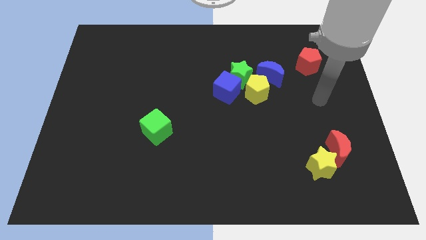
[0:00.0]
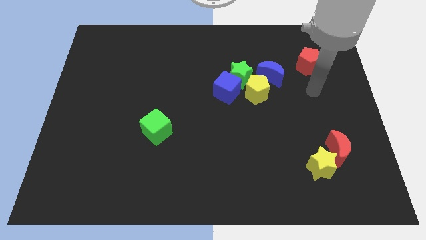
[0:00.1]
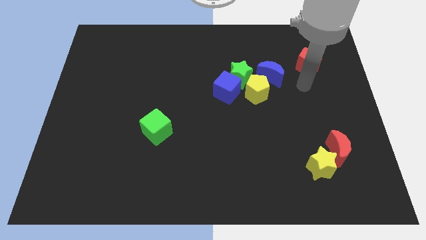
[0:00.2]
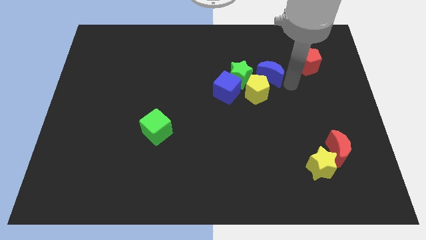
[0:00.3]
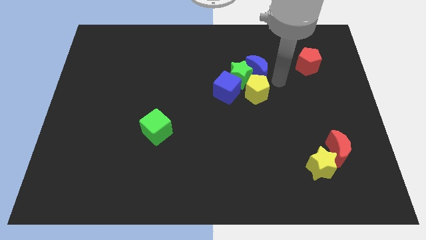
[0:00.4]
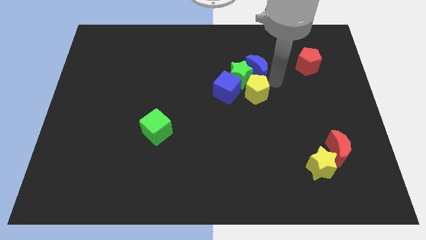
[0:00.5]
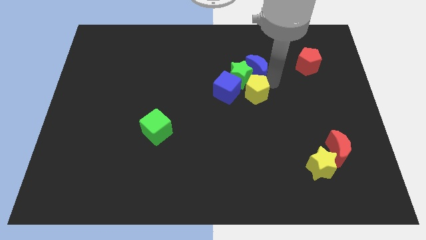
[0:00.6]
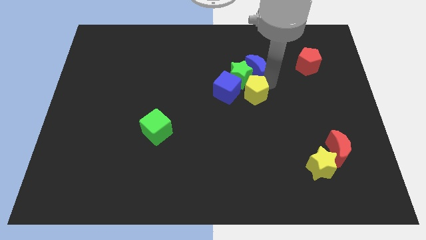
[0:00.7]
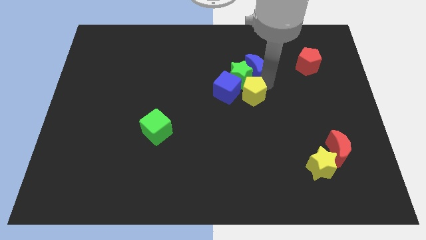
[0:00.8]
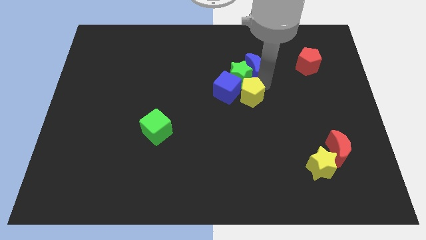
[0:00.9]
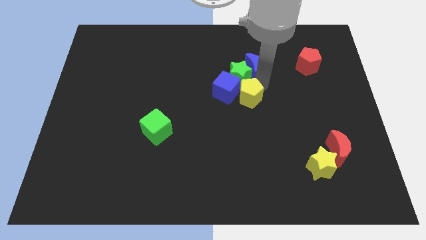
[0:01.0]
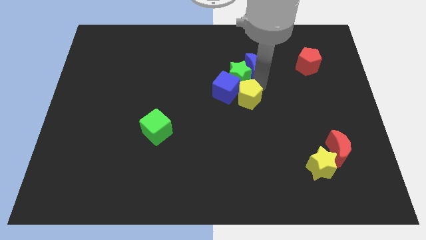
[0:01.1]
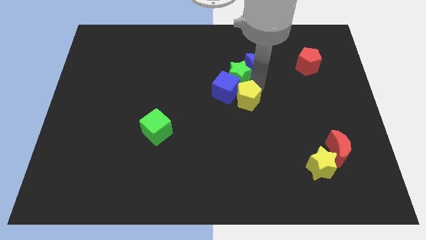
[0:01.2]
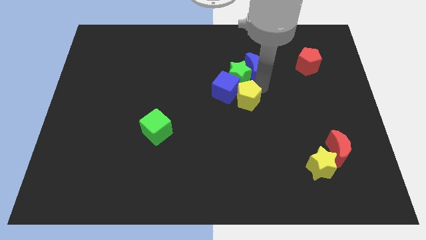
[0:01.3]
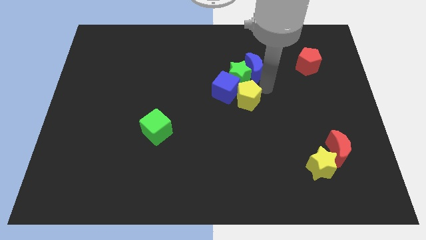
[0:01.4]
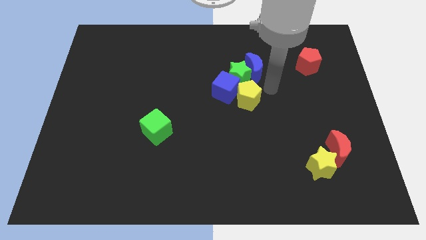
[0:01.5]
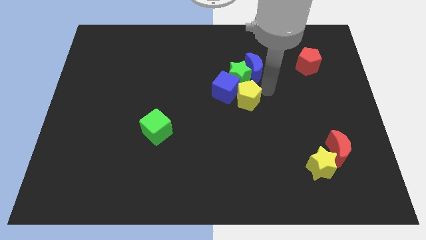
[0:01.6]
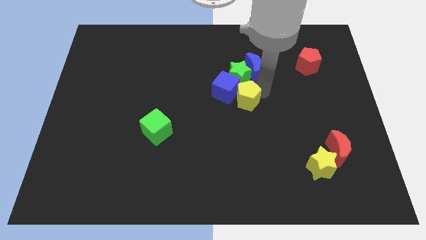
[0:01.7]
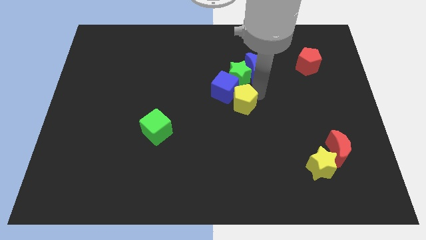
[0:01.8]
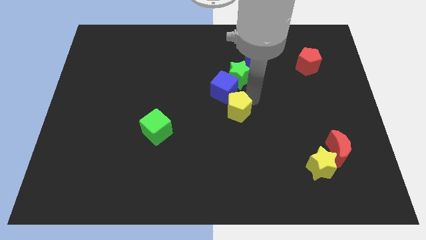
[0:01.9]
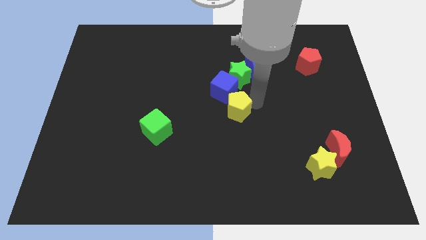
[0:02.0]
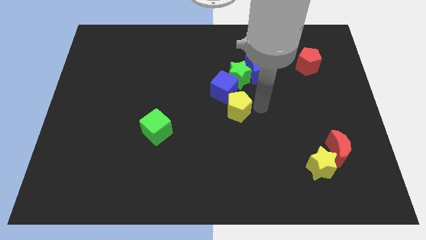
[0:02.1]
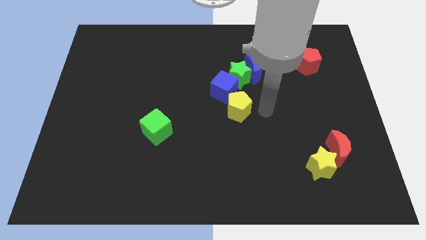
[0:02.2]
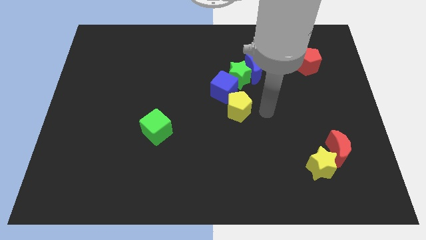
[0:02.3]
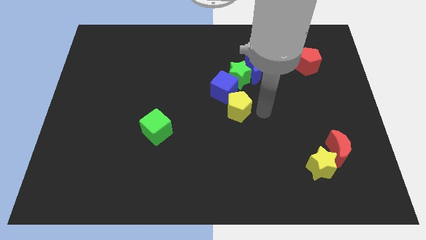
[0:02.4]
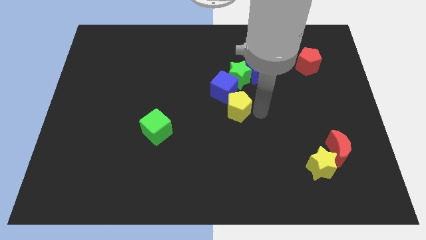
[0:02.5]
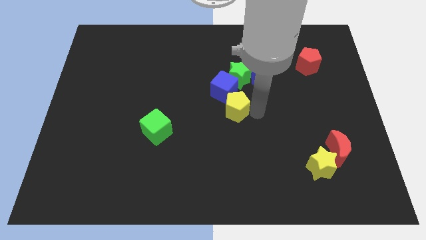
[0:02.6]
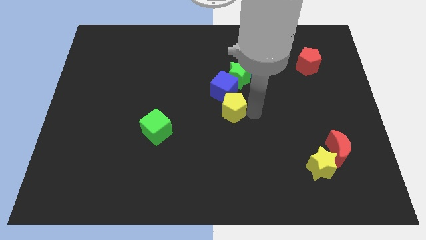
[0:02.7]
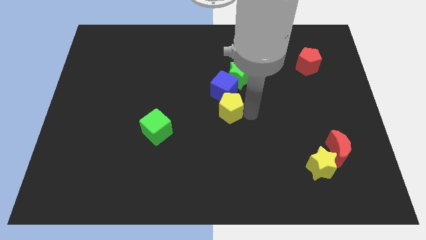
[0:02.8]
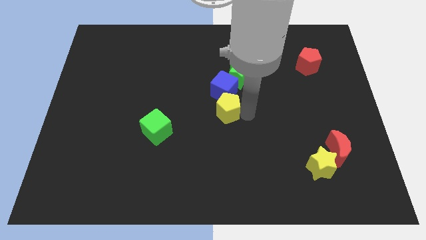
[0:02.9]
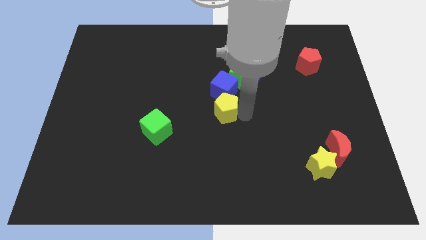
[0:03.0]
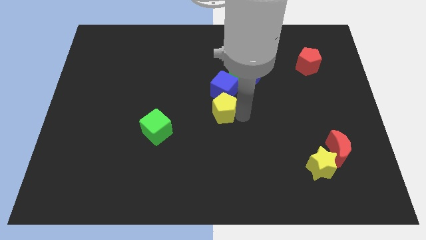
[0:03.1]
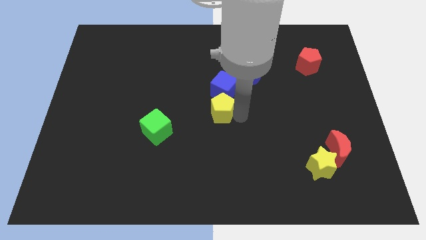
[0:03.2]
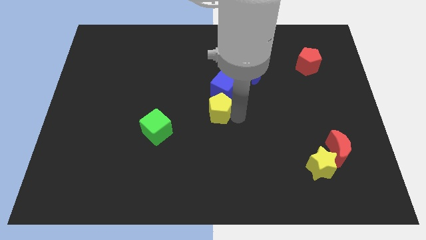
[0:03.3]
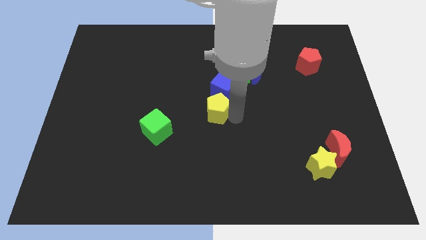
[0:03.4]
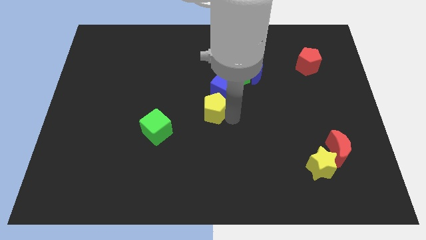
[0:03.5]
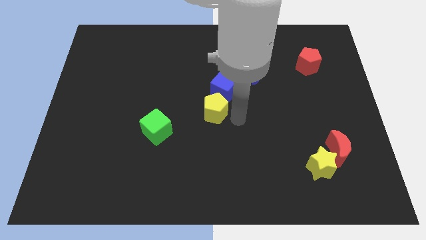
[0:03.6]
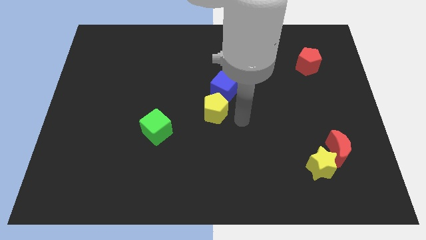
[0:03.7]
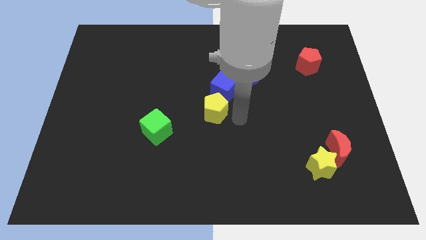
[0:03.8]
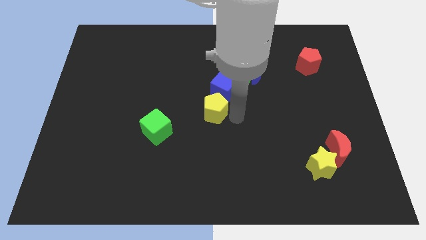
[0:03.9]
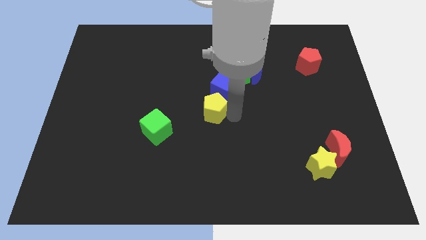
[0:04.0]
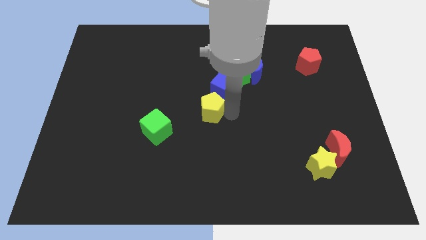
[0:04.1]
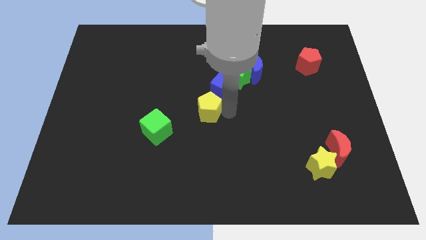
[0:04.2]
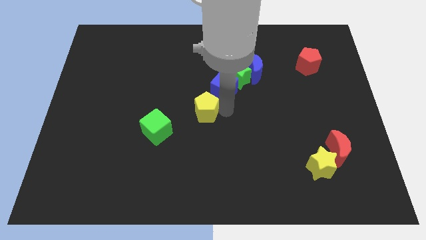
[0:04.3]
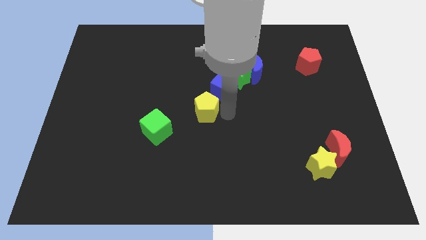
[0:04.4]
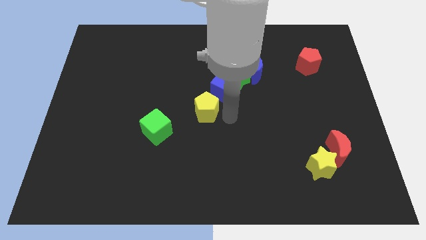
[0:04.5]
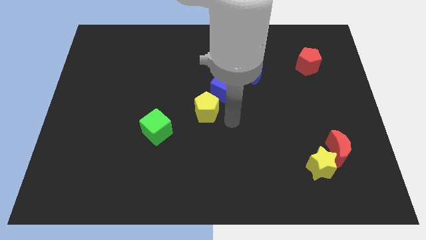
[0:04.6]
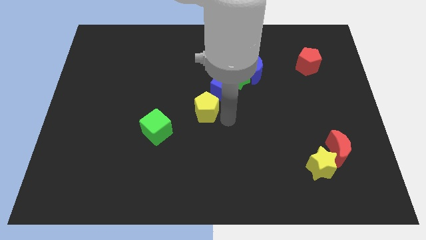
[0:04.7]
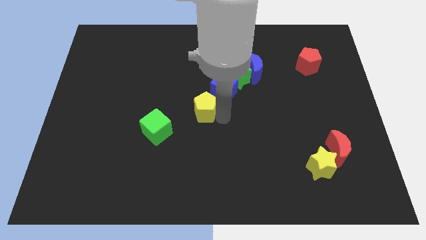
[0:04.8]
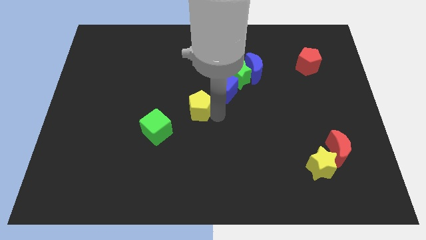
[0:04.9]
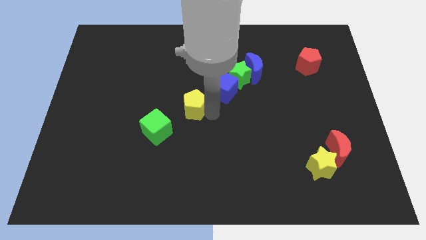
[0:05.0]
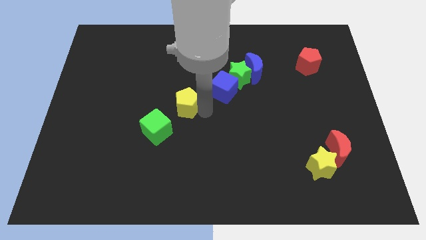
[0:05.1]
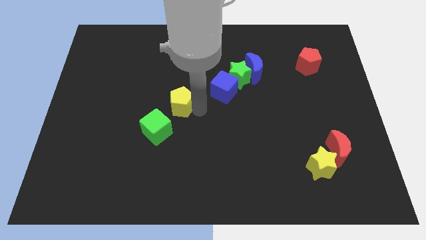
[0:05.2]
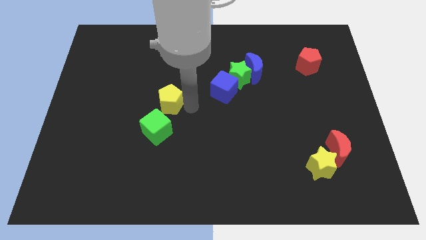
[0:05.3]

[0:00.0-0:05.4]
slide the yellow pentagon to the left

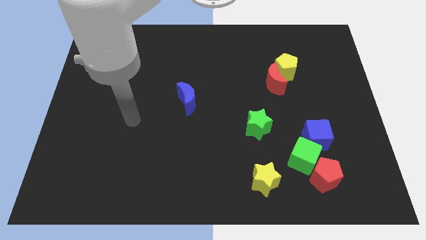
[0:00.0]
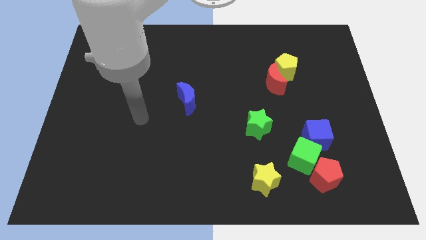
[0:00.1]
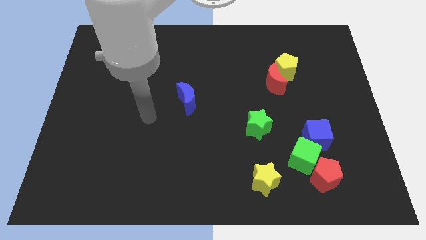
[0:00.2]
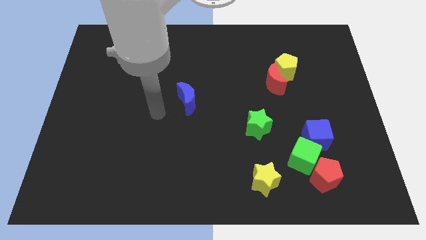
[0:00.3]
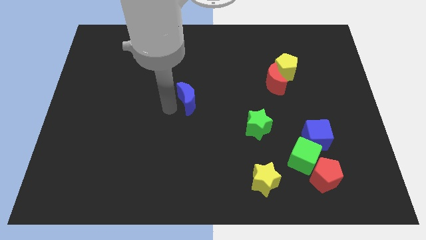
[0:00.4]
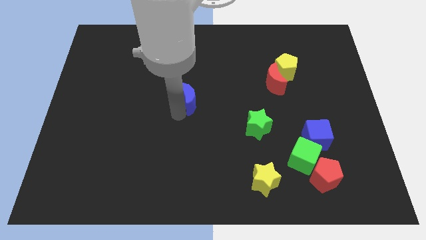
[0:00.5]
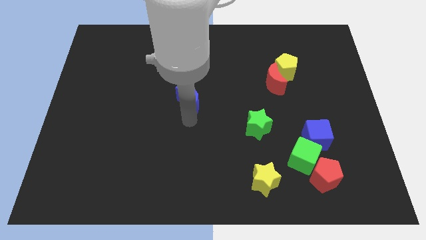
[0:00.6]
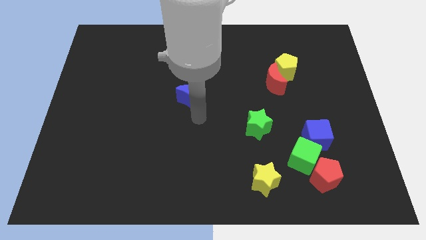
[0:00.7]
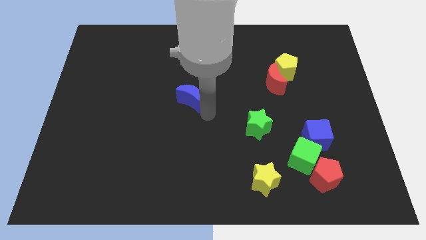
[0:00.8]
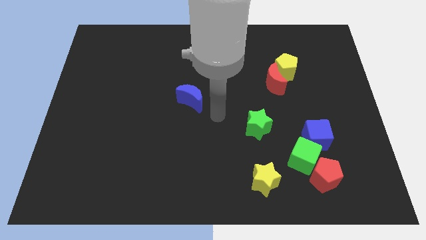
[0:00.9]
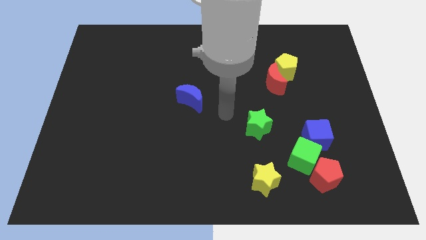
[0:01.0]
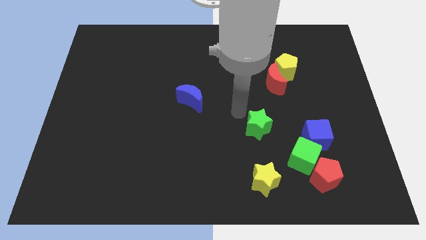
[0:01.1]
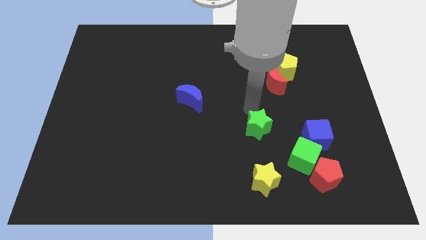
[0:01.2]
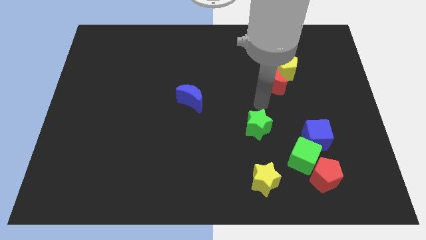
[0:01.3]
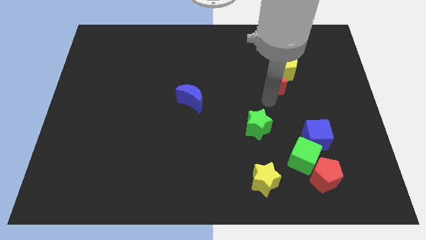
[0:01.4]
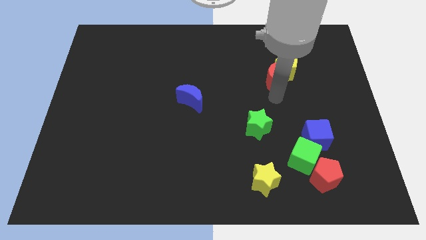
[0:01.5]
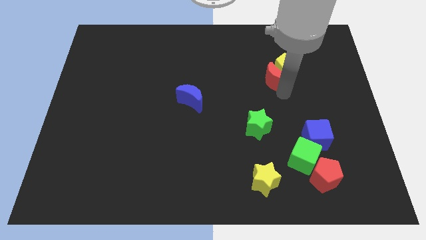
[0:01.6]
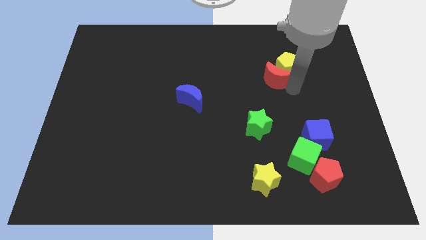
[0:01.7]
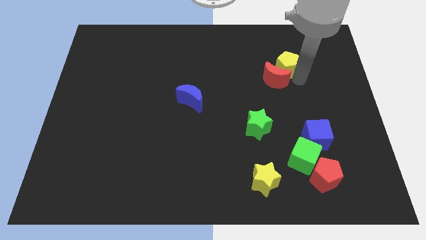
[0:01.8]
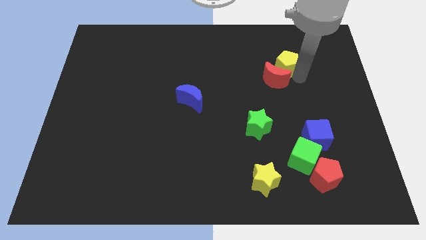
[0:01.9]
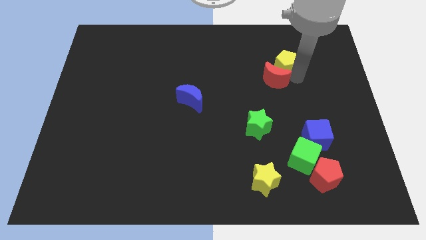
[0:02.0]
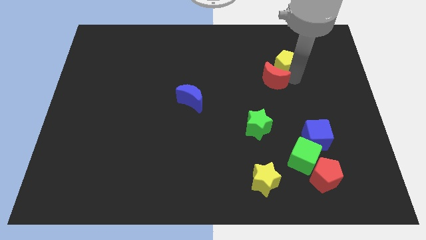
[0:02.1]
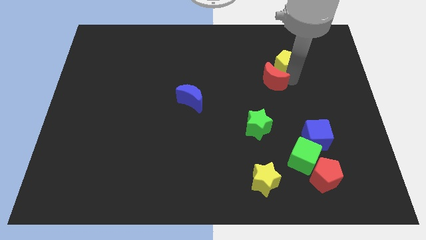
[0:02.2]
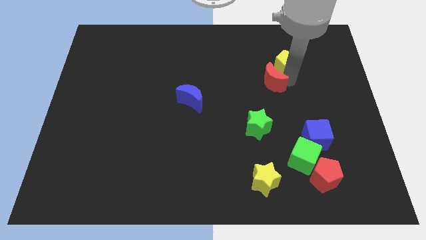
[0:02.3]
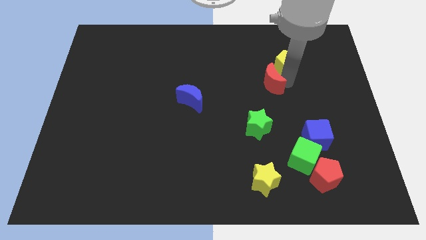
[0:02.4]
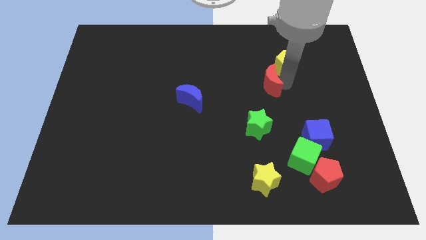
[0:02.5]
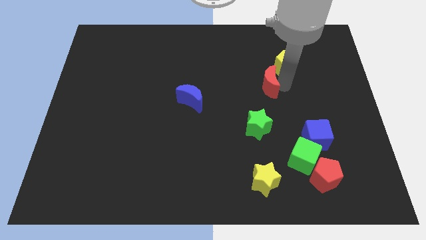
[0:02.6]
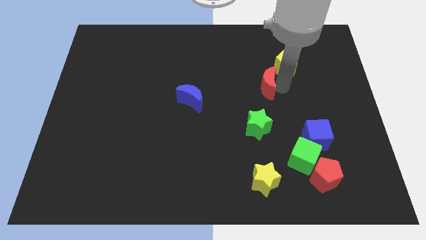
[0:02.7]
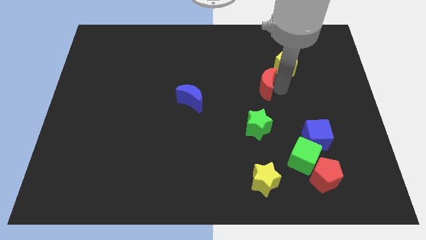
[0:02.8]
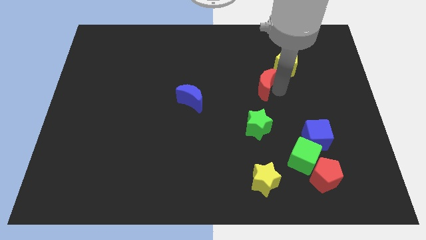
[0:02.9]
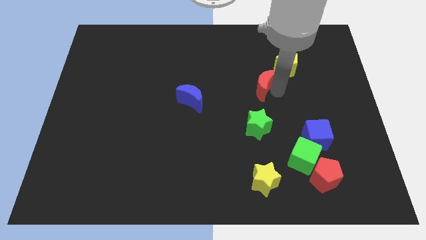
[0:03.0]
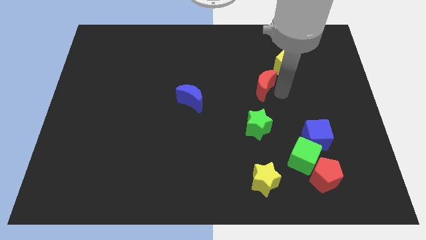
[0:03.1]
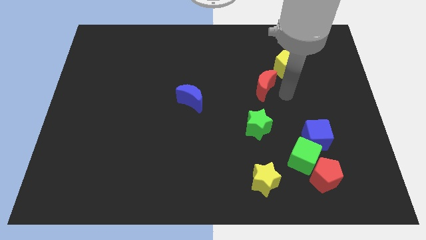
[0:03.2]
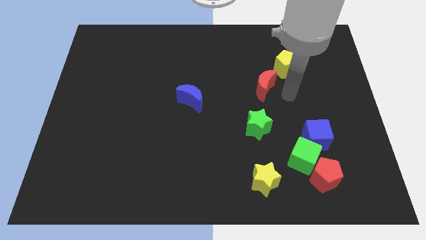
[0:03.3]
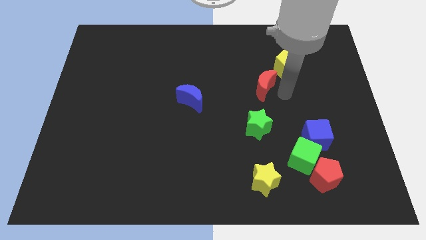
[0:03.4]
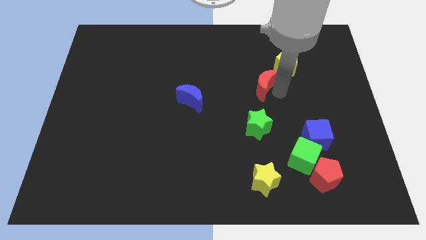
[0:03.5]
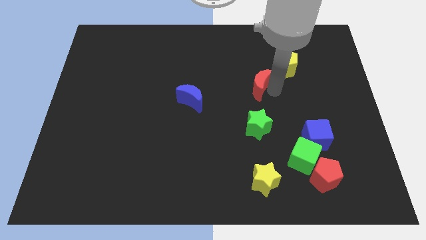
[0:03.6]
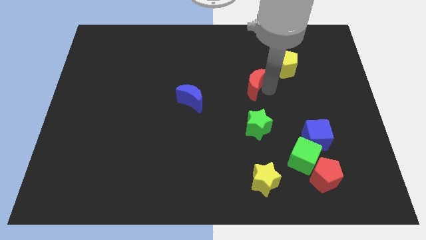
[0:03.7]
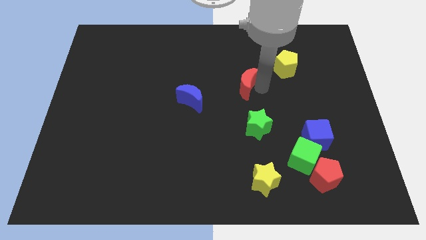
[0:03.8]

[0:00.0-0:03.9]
push the red moon left slightly
